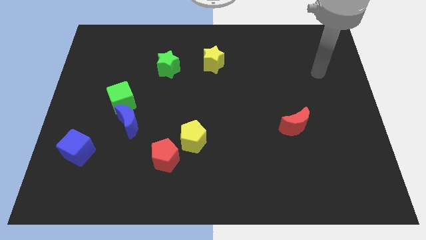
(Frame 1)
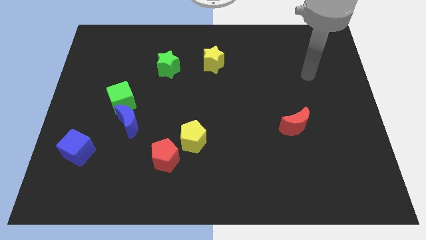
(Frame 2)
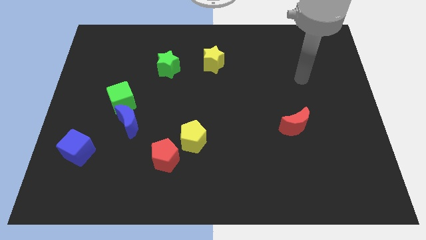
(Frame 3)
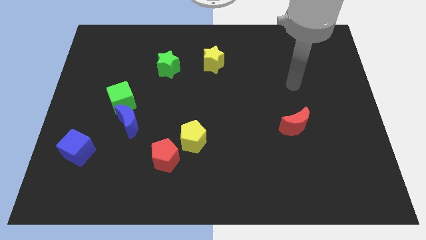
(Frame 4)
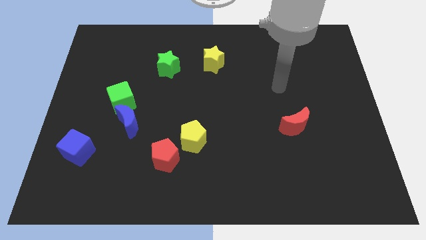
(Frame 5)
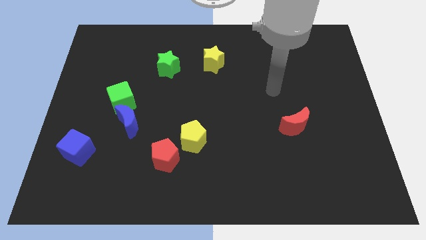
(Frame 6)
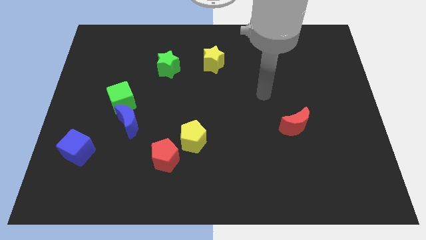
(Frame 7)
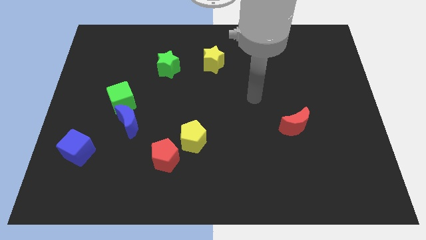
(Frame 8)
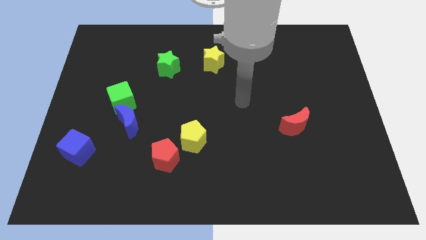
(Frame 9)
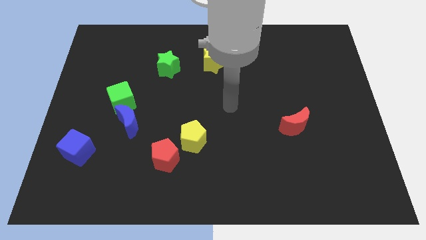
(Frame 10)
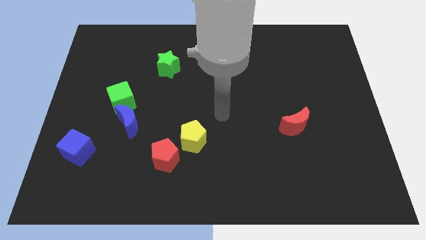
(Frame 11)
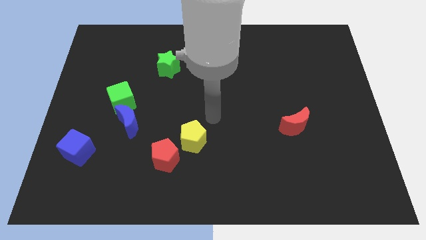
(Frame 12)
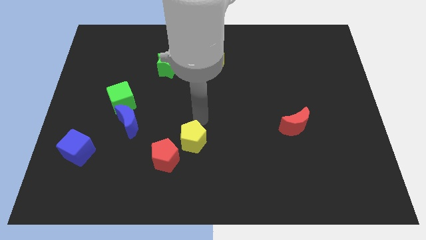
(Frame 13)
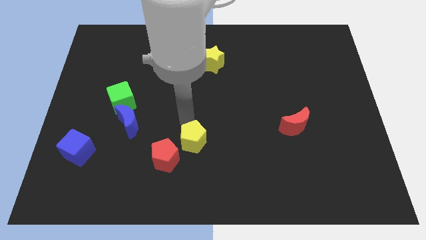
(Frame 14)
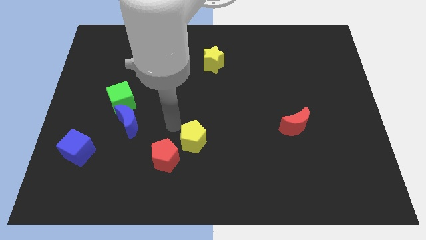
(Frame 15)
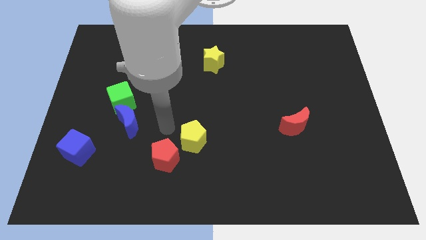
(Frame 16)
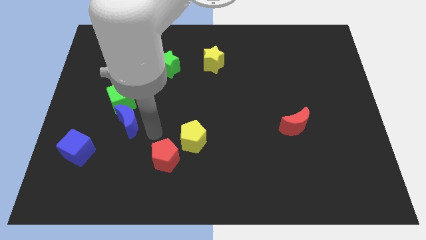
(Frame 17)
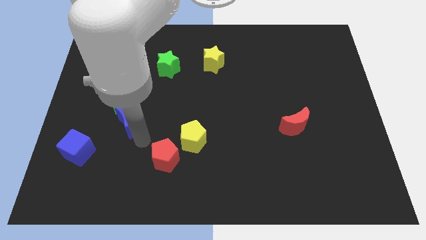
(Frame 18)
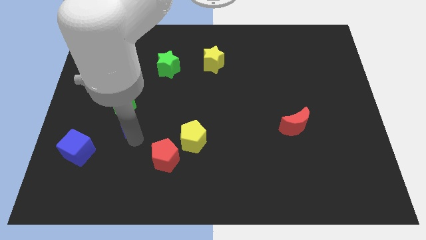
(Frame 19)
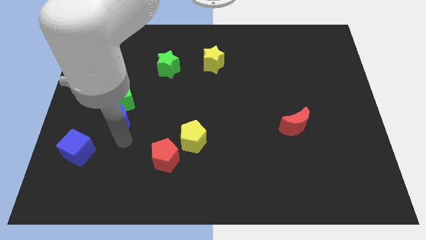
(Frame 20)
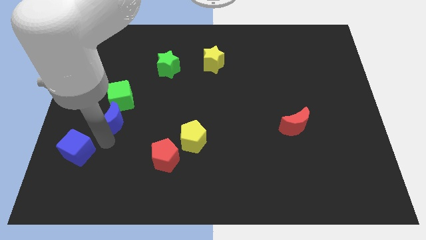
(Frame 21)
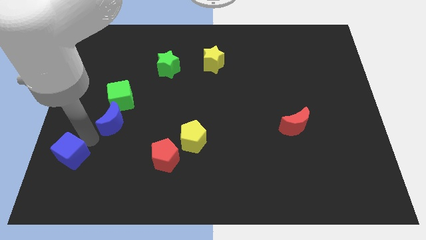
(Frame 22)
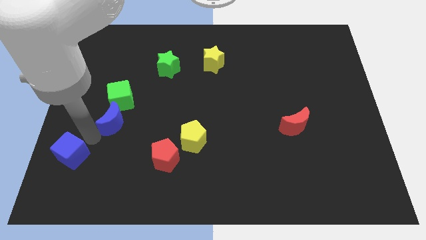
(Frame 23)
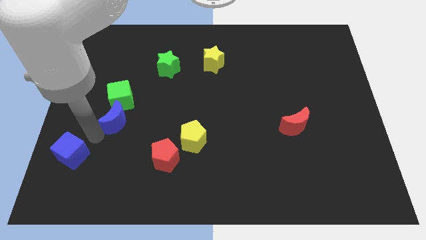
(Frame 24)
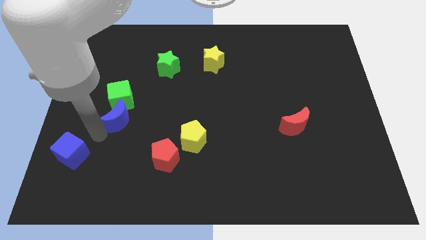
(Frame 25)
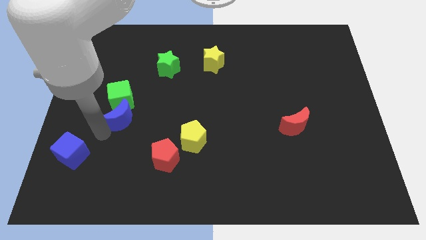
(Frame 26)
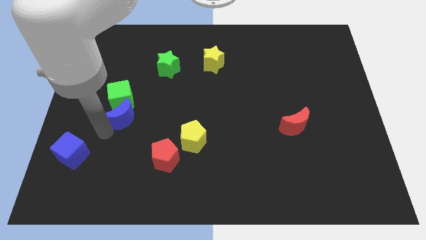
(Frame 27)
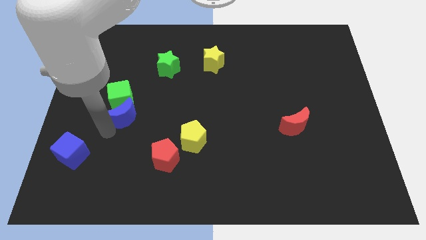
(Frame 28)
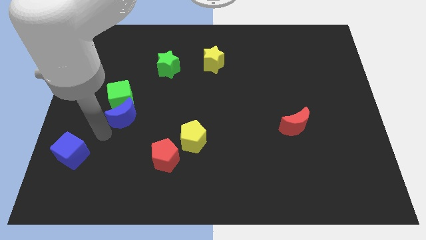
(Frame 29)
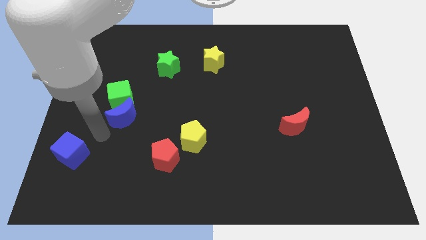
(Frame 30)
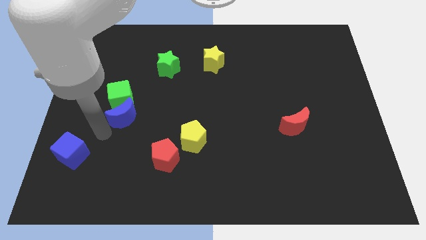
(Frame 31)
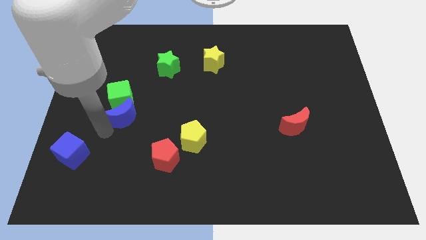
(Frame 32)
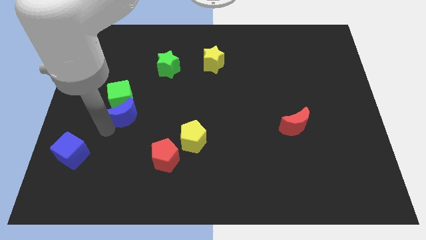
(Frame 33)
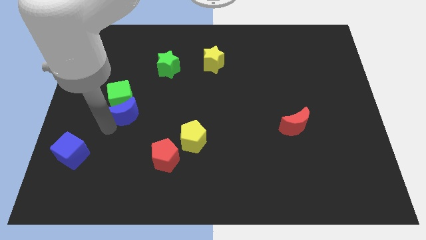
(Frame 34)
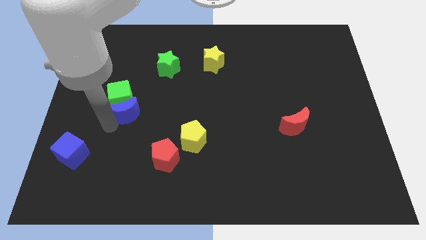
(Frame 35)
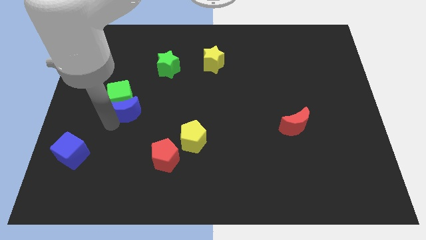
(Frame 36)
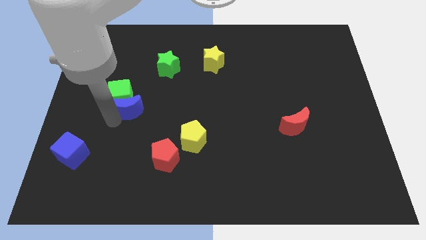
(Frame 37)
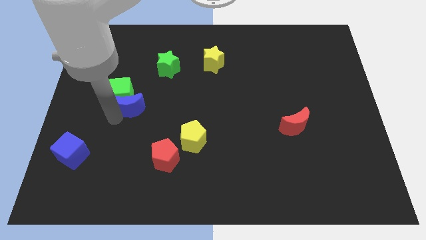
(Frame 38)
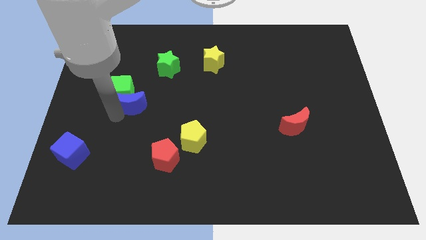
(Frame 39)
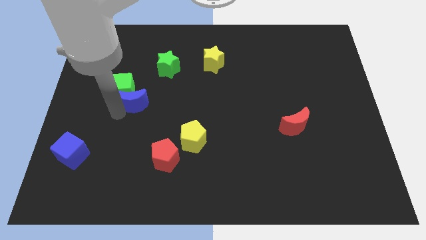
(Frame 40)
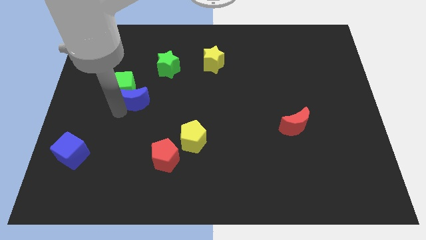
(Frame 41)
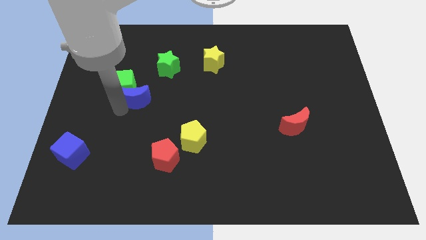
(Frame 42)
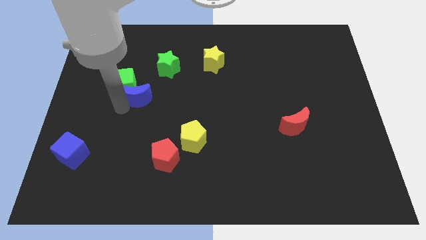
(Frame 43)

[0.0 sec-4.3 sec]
slide the blue moon a bit upwards

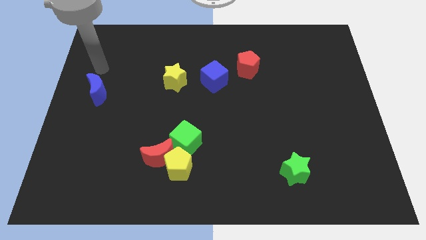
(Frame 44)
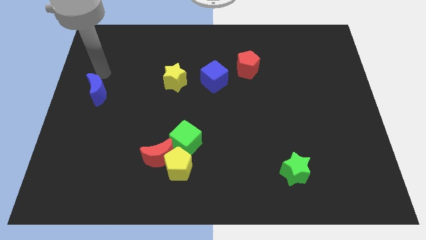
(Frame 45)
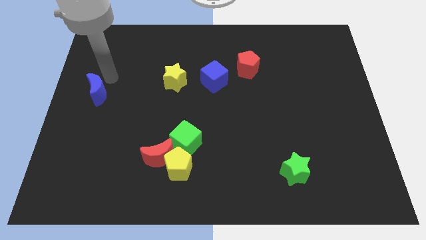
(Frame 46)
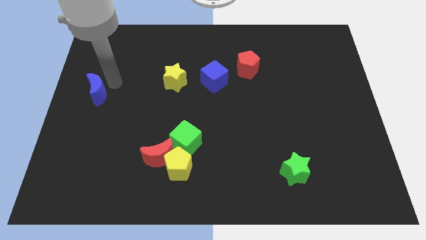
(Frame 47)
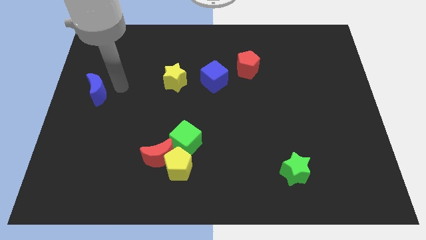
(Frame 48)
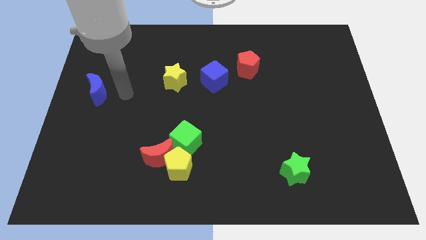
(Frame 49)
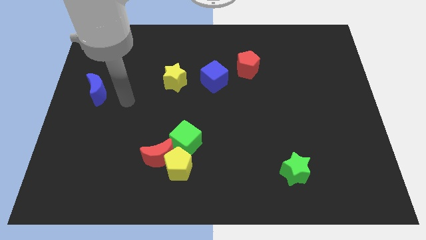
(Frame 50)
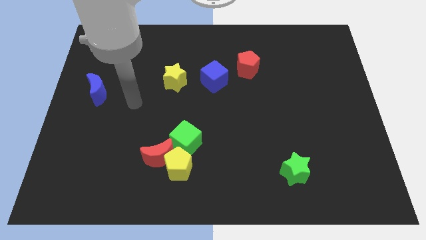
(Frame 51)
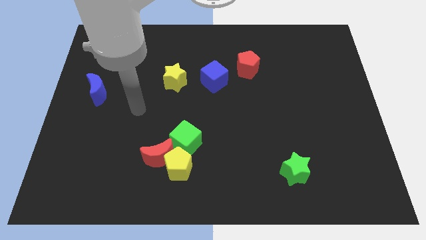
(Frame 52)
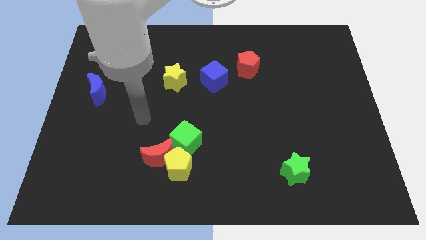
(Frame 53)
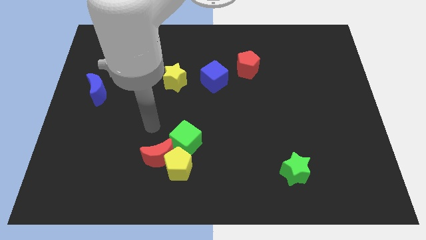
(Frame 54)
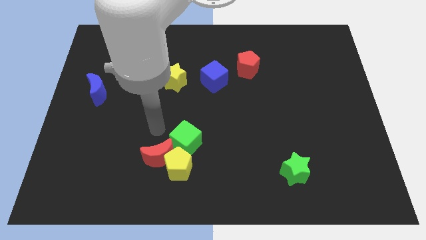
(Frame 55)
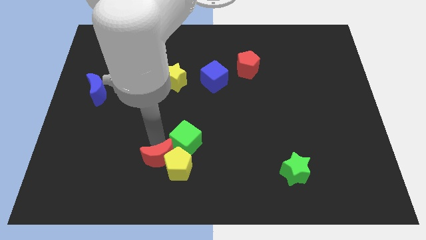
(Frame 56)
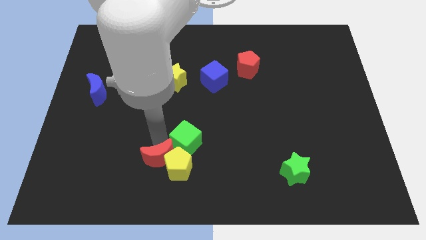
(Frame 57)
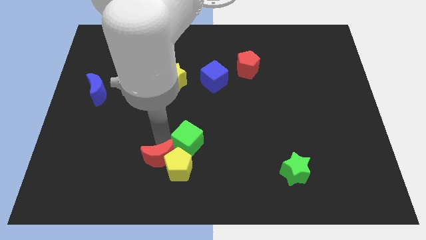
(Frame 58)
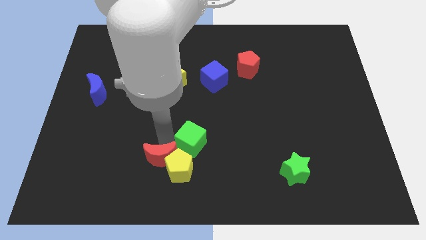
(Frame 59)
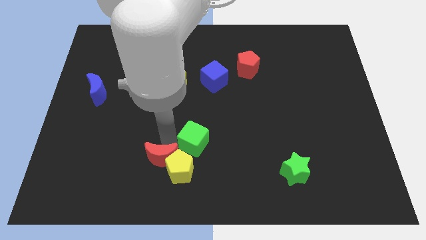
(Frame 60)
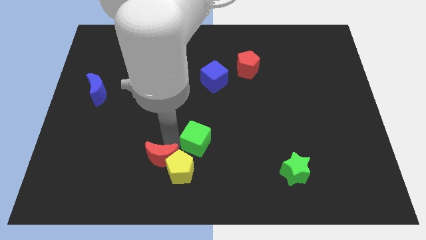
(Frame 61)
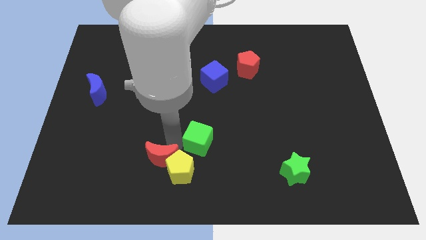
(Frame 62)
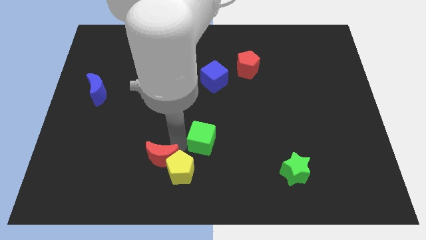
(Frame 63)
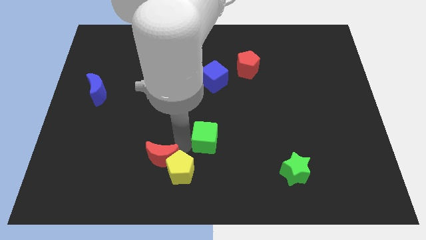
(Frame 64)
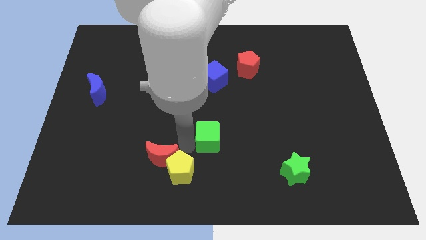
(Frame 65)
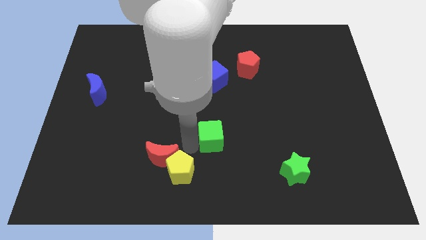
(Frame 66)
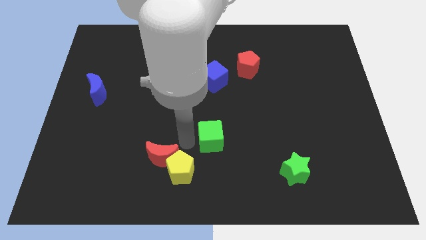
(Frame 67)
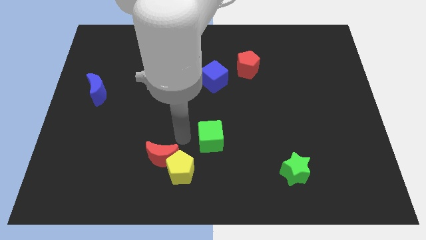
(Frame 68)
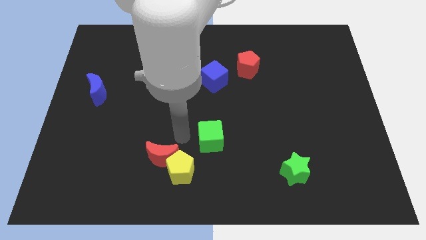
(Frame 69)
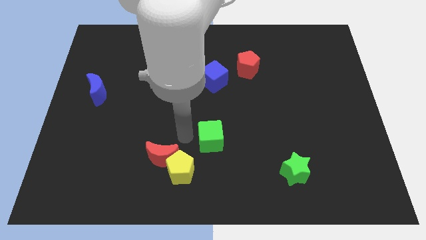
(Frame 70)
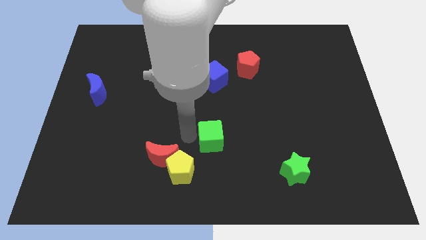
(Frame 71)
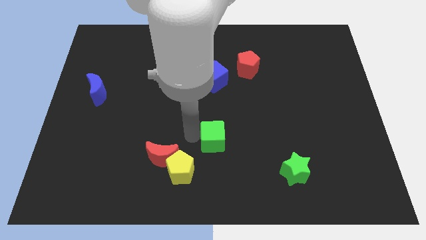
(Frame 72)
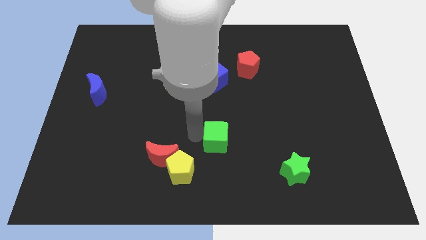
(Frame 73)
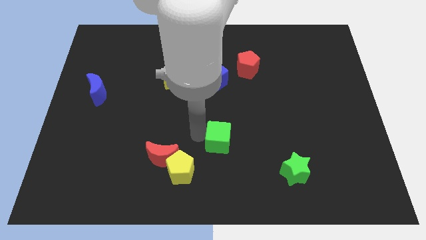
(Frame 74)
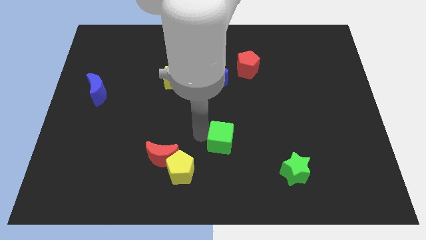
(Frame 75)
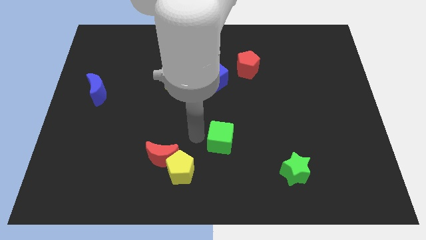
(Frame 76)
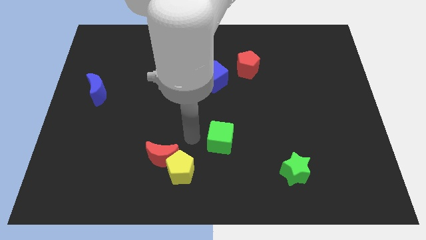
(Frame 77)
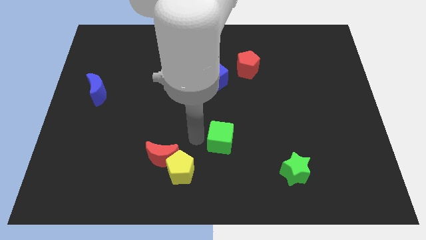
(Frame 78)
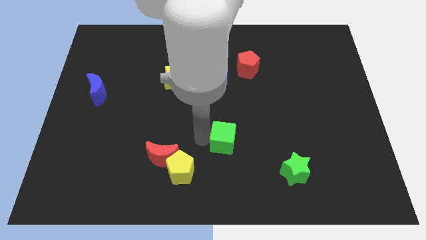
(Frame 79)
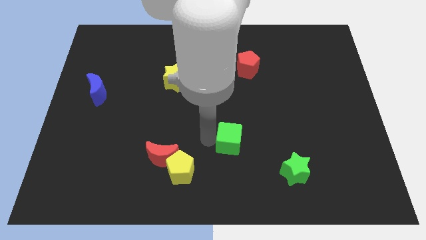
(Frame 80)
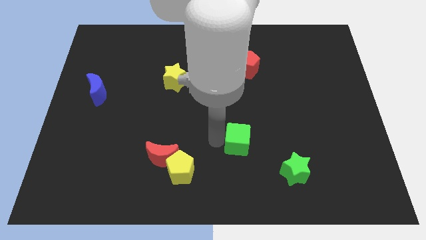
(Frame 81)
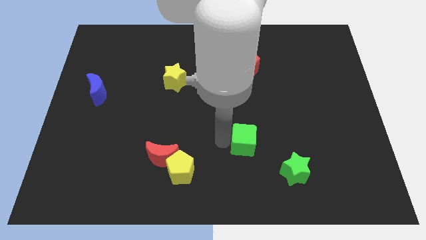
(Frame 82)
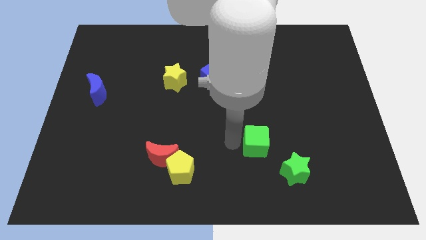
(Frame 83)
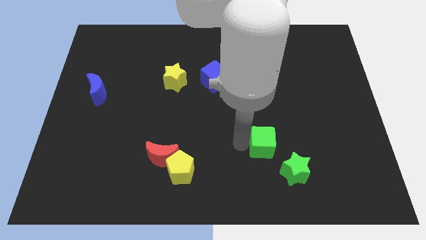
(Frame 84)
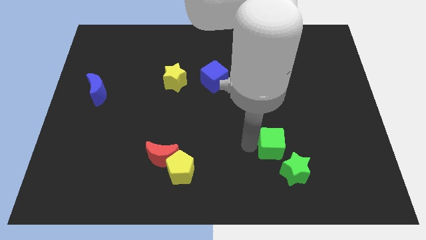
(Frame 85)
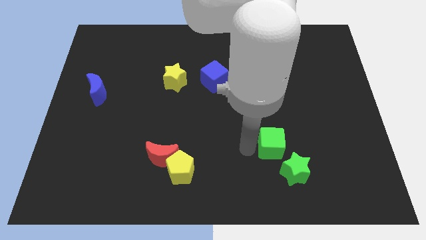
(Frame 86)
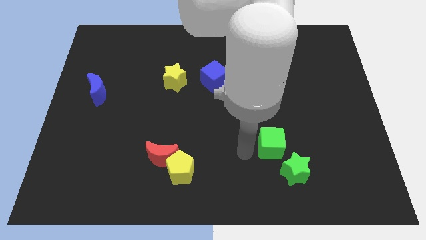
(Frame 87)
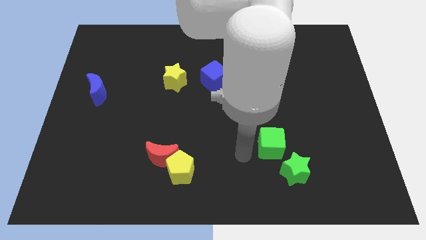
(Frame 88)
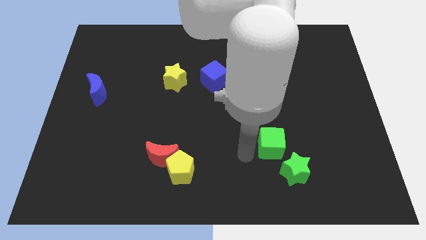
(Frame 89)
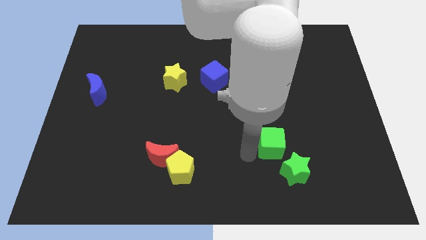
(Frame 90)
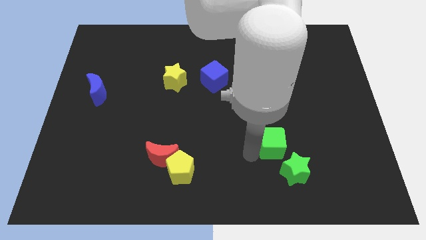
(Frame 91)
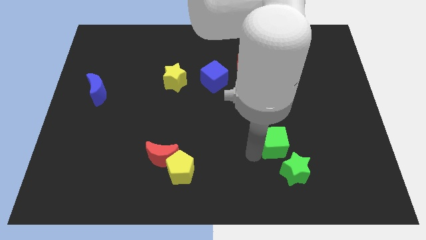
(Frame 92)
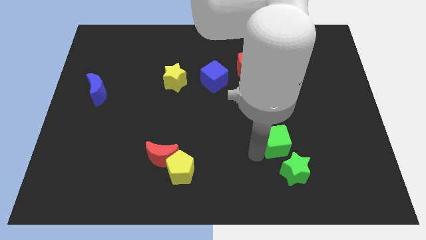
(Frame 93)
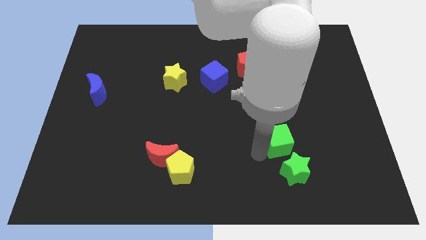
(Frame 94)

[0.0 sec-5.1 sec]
push the green cube to the right
